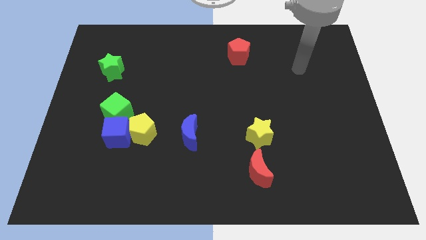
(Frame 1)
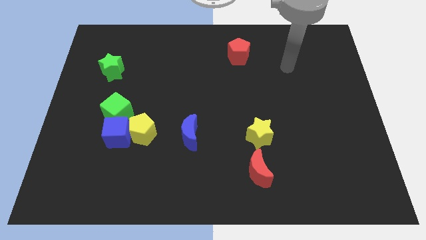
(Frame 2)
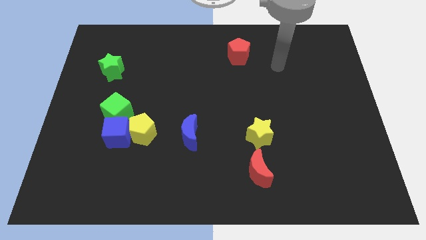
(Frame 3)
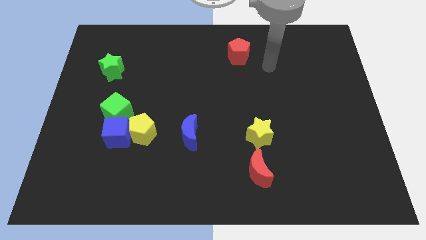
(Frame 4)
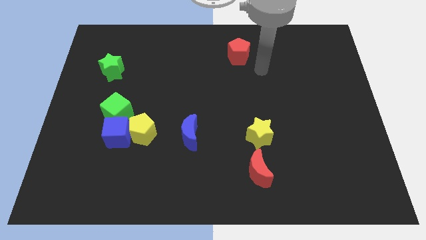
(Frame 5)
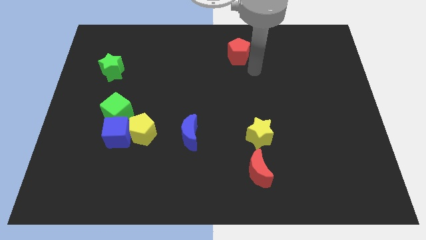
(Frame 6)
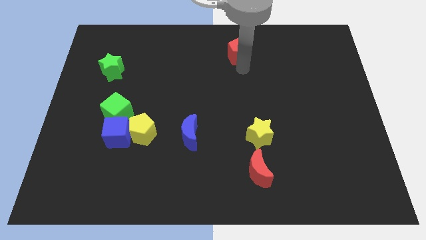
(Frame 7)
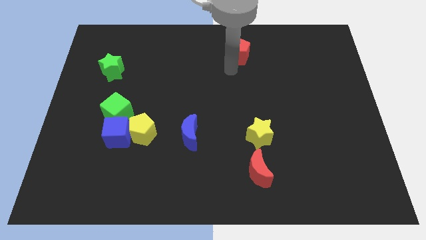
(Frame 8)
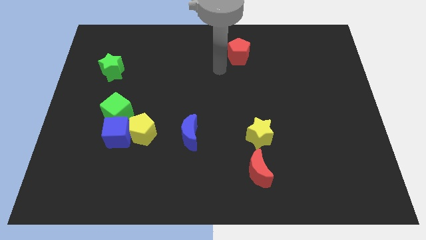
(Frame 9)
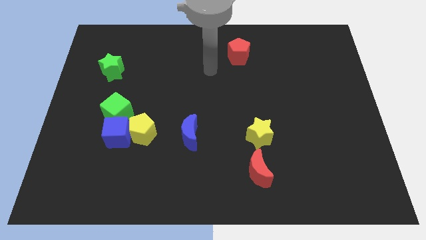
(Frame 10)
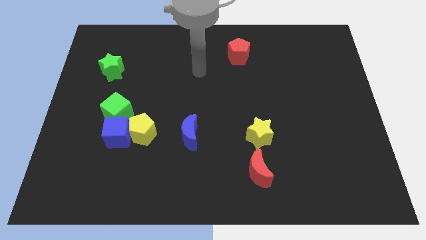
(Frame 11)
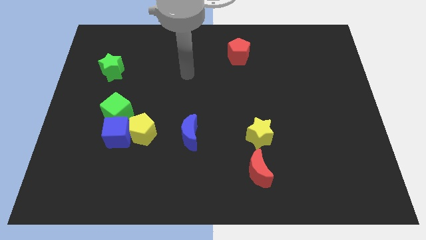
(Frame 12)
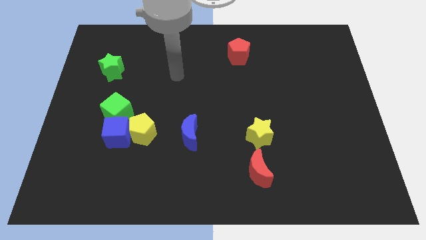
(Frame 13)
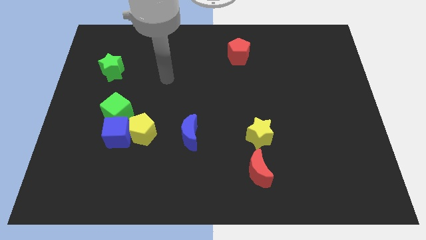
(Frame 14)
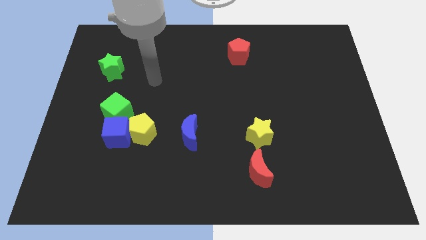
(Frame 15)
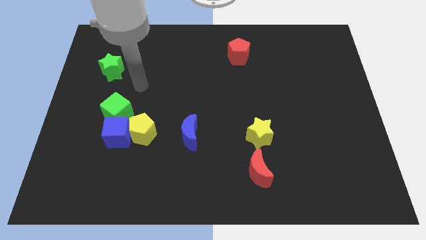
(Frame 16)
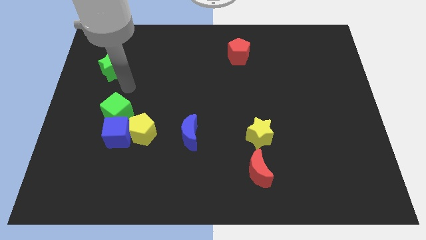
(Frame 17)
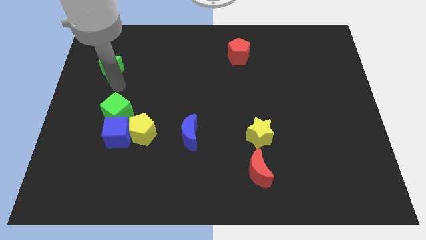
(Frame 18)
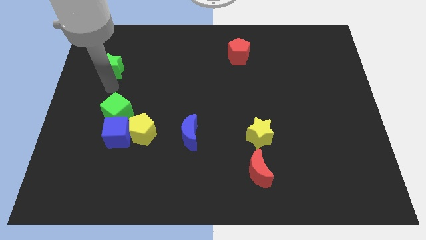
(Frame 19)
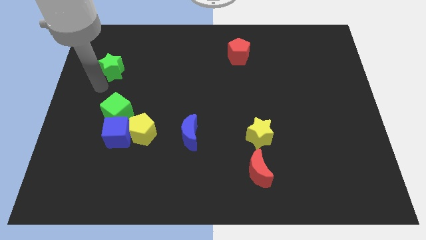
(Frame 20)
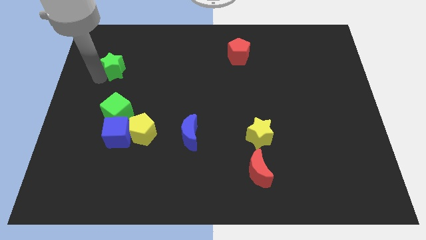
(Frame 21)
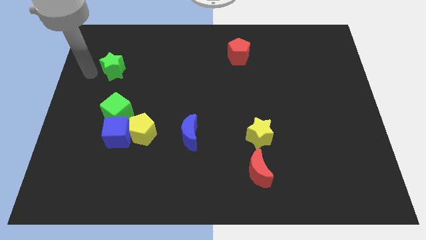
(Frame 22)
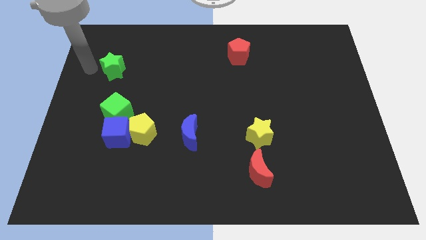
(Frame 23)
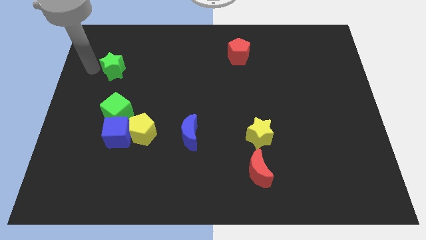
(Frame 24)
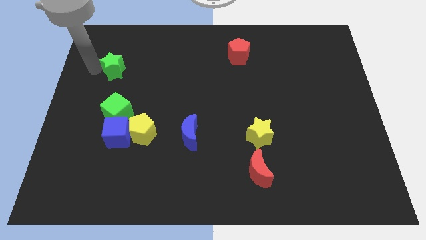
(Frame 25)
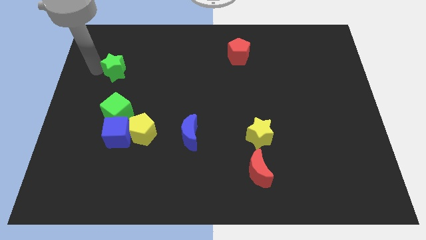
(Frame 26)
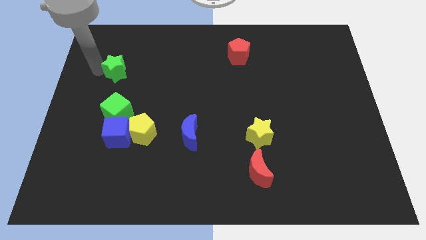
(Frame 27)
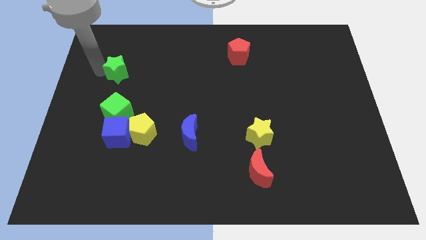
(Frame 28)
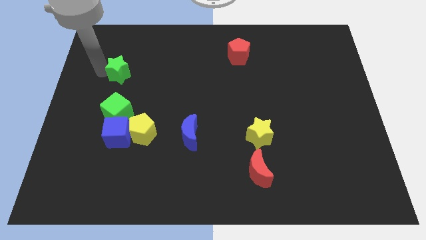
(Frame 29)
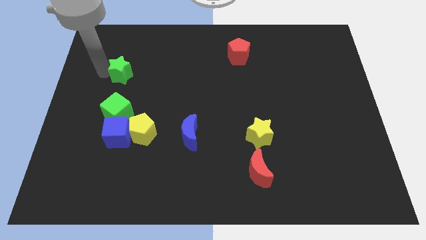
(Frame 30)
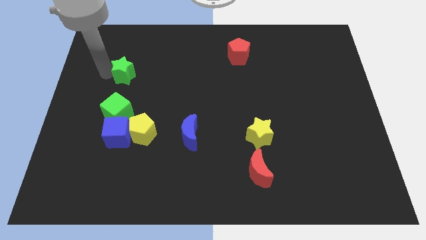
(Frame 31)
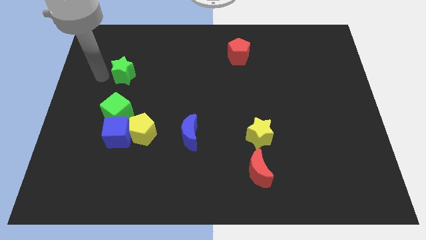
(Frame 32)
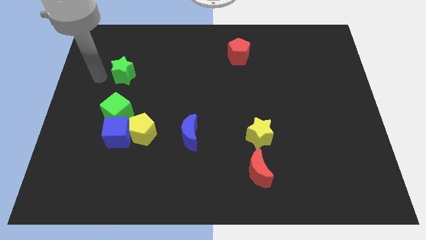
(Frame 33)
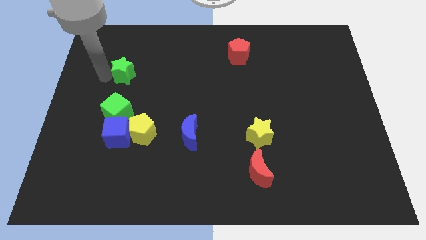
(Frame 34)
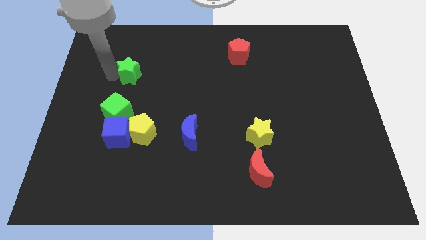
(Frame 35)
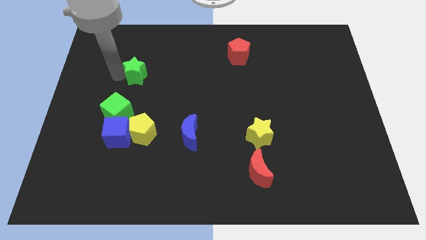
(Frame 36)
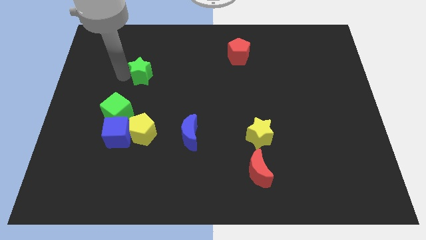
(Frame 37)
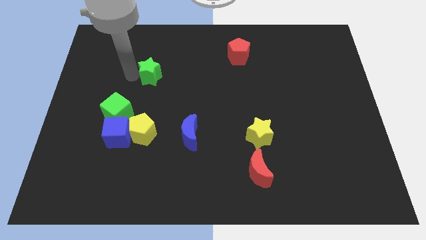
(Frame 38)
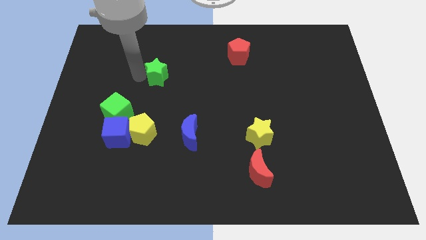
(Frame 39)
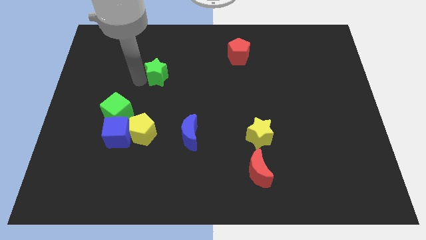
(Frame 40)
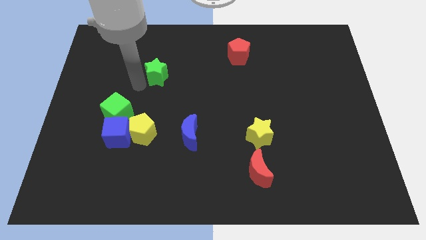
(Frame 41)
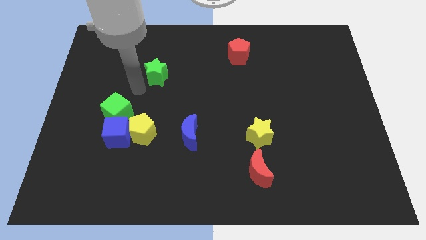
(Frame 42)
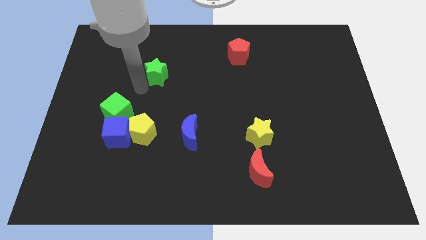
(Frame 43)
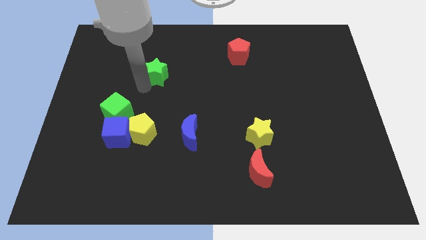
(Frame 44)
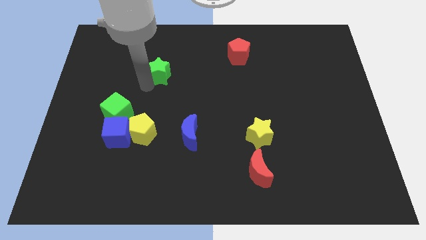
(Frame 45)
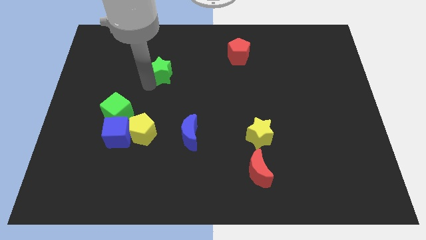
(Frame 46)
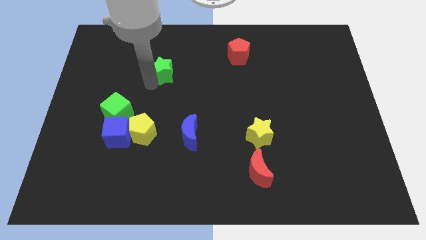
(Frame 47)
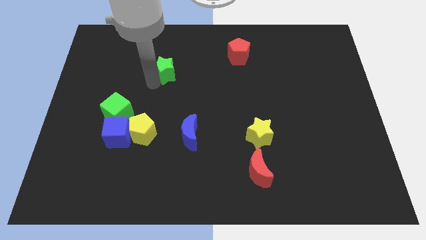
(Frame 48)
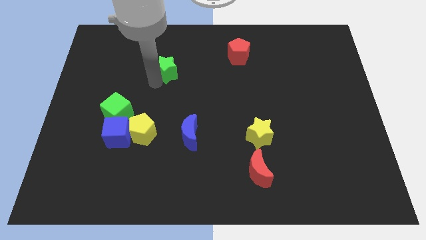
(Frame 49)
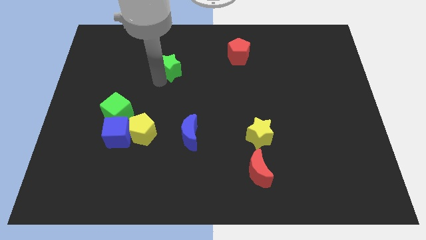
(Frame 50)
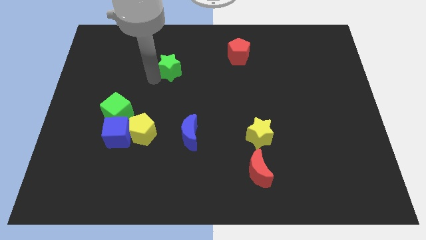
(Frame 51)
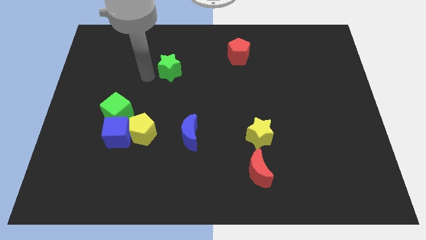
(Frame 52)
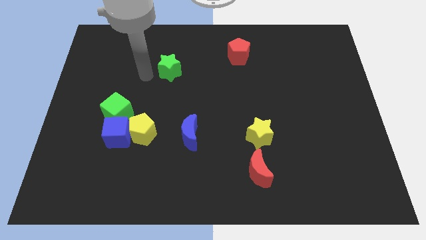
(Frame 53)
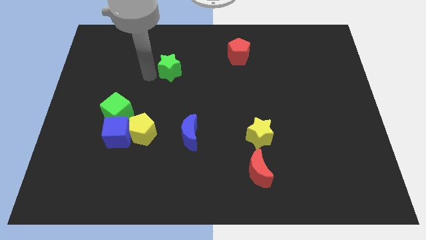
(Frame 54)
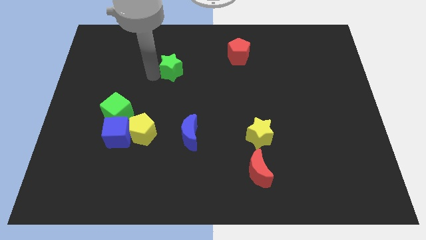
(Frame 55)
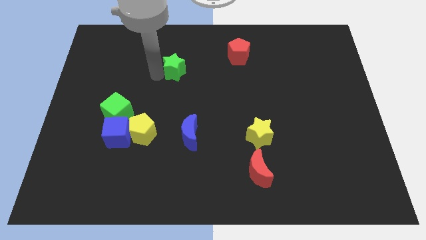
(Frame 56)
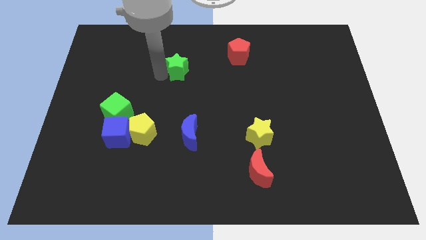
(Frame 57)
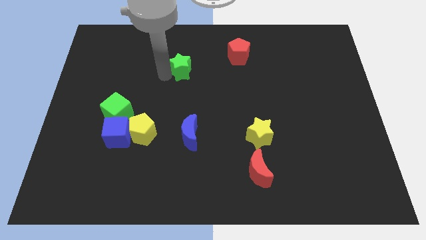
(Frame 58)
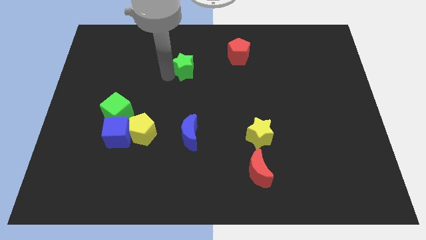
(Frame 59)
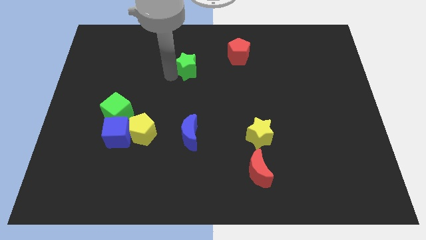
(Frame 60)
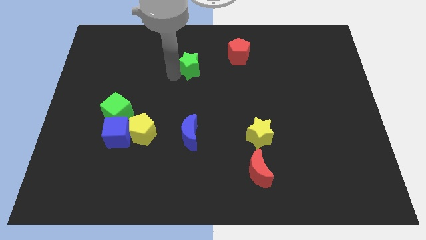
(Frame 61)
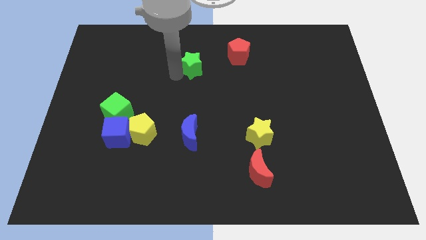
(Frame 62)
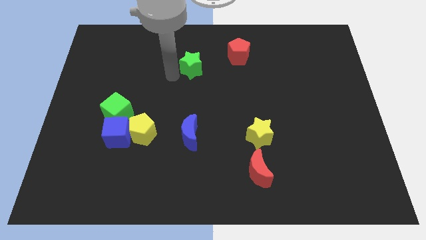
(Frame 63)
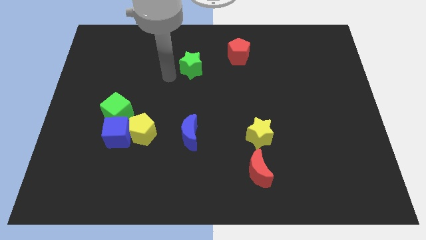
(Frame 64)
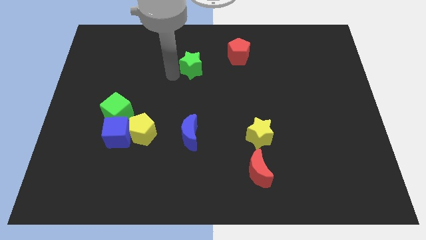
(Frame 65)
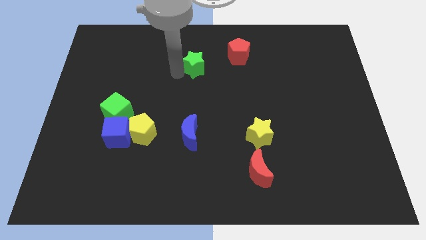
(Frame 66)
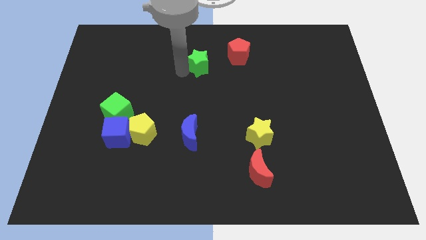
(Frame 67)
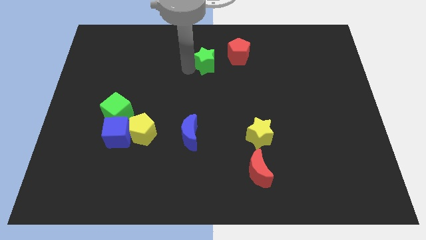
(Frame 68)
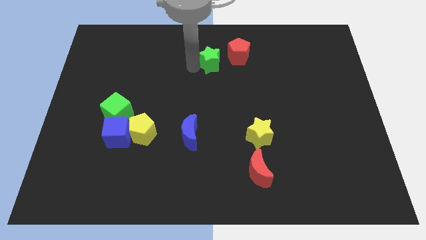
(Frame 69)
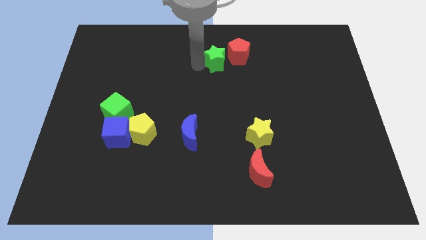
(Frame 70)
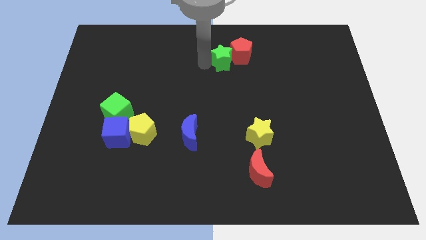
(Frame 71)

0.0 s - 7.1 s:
move the green star next to the red pentagon
